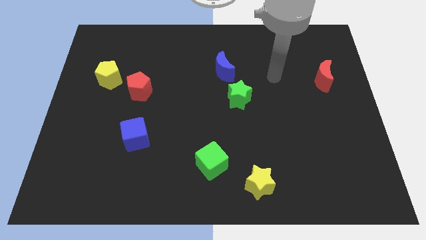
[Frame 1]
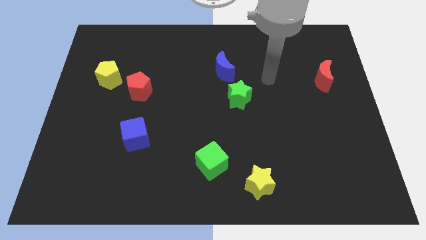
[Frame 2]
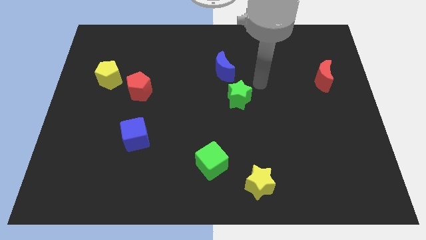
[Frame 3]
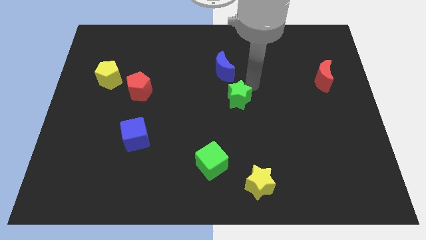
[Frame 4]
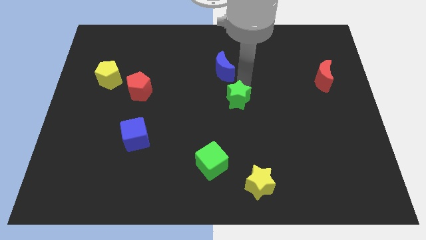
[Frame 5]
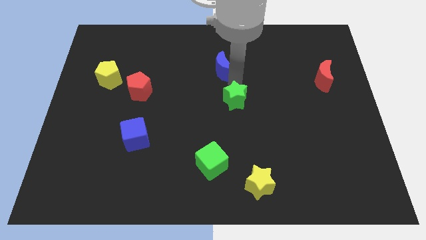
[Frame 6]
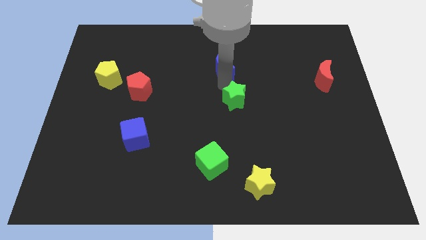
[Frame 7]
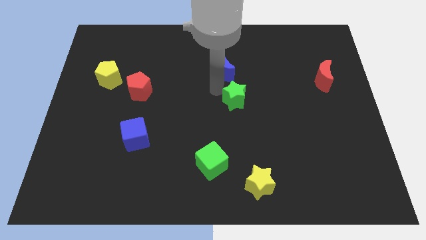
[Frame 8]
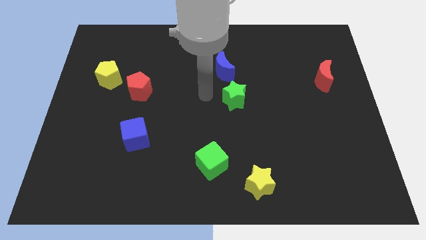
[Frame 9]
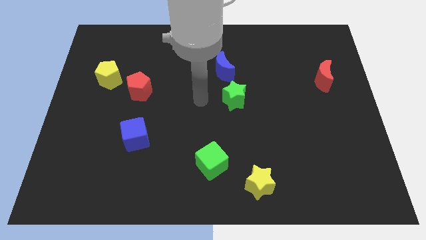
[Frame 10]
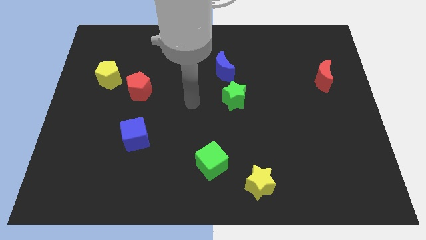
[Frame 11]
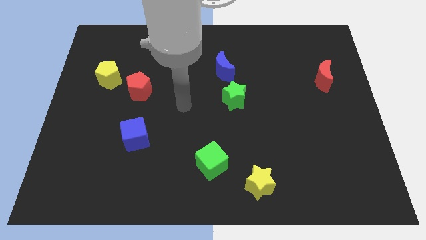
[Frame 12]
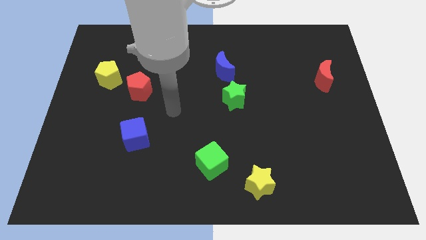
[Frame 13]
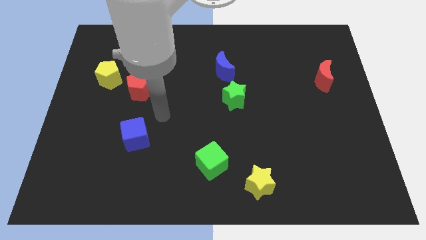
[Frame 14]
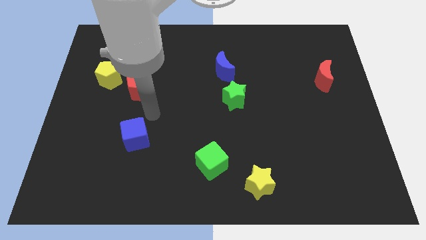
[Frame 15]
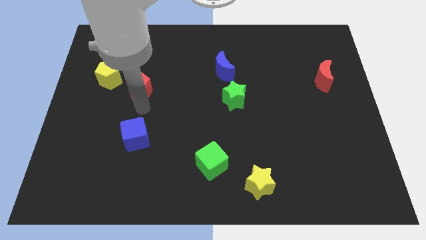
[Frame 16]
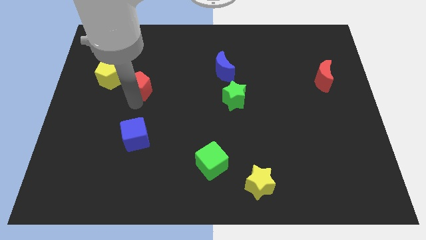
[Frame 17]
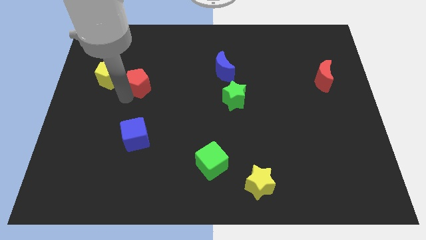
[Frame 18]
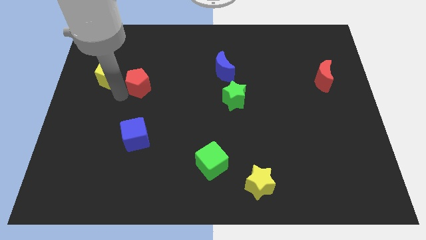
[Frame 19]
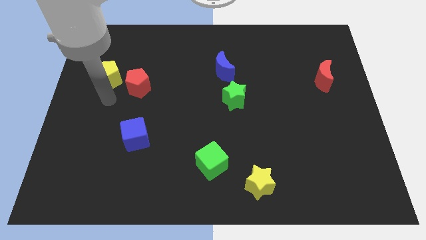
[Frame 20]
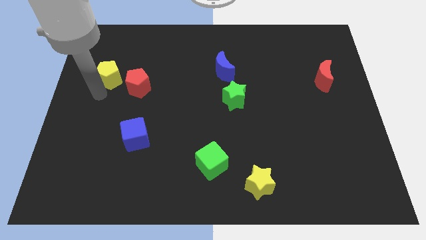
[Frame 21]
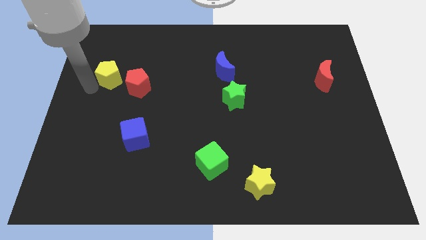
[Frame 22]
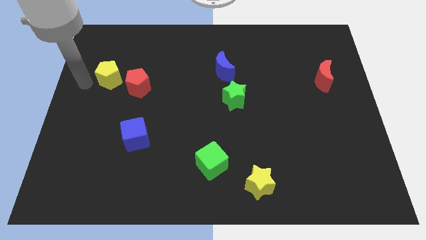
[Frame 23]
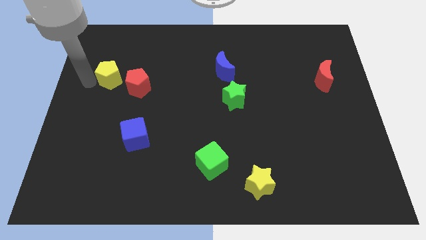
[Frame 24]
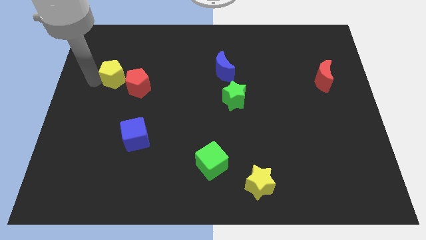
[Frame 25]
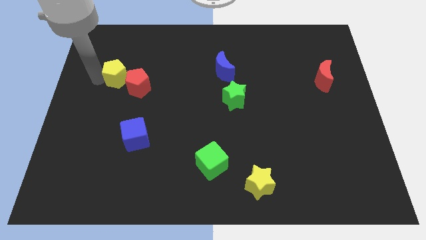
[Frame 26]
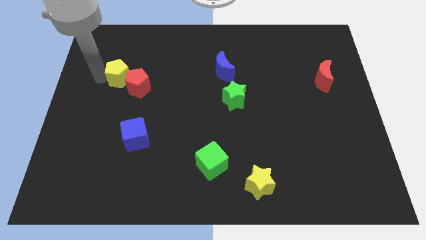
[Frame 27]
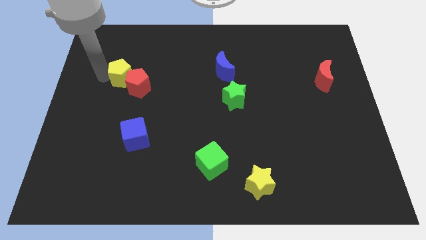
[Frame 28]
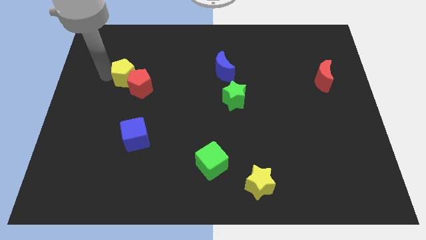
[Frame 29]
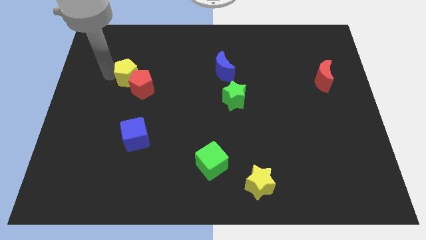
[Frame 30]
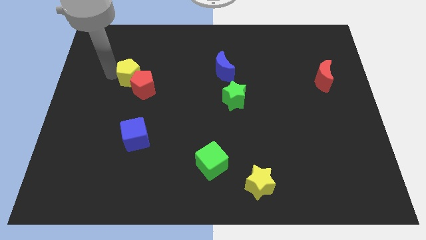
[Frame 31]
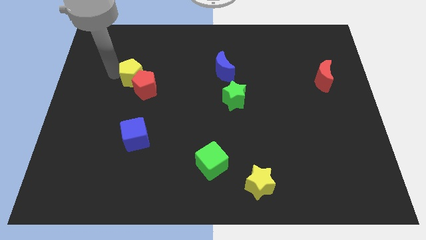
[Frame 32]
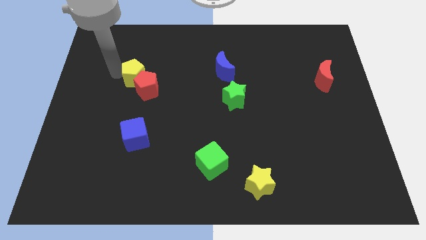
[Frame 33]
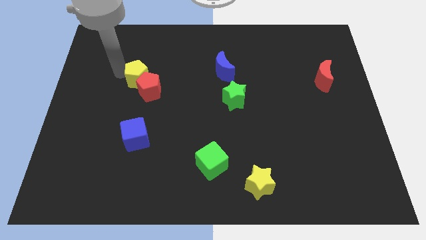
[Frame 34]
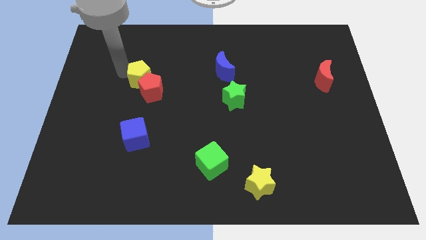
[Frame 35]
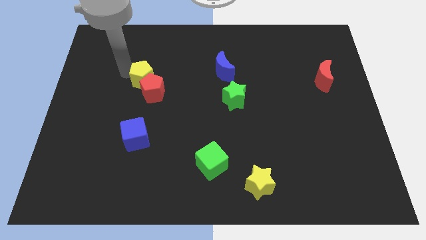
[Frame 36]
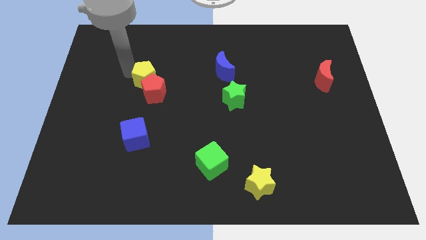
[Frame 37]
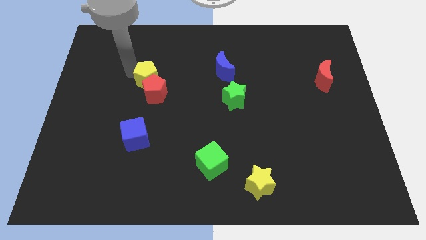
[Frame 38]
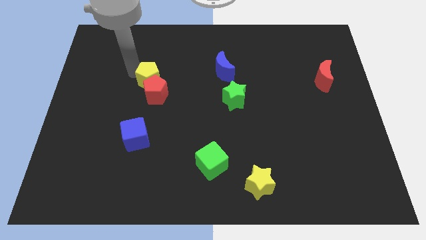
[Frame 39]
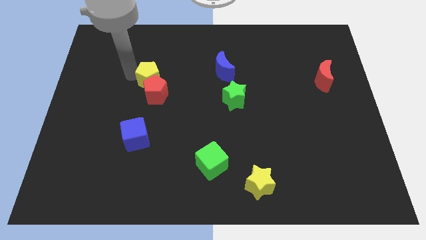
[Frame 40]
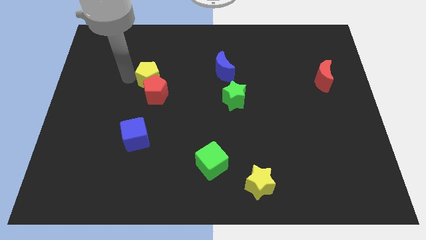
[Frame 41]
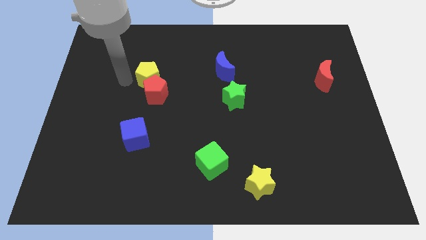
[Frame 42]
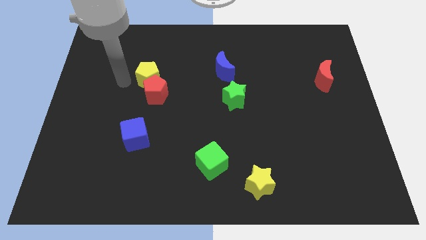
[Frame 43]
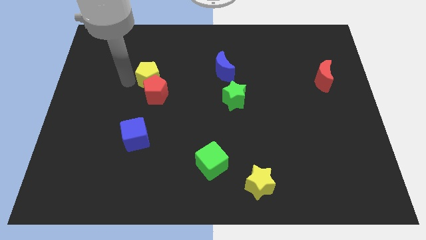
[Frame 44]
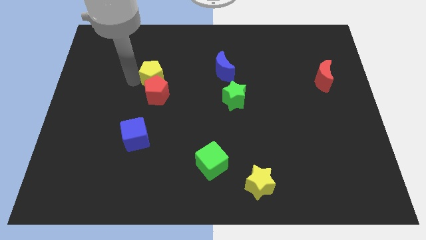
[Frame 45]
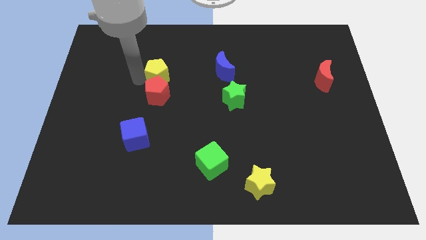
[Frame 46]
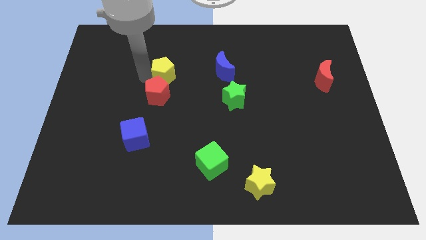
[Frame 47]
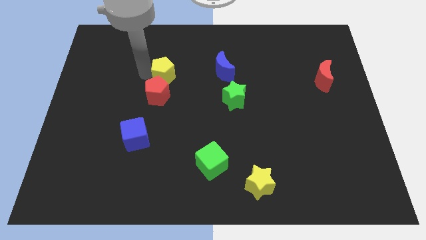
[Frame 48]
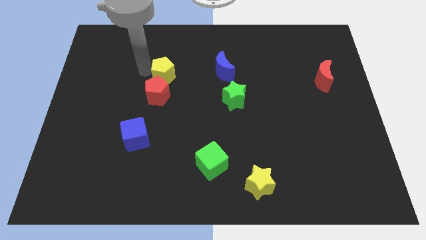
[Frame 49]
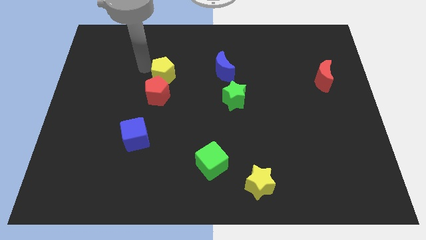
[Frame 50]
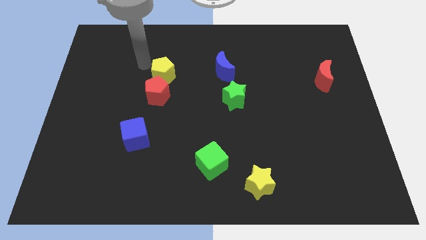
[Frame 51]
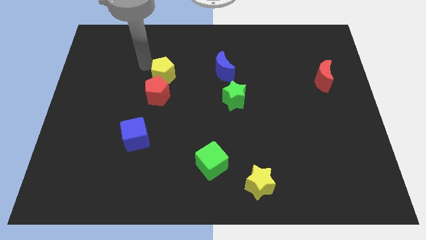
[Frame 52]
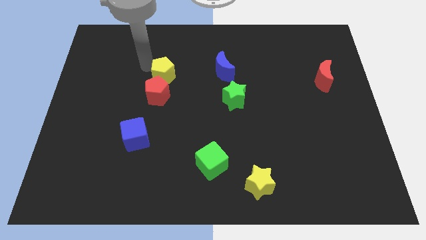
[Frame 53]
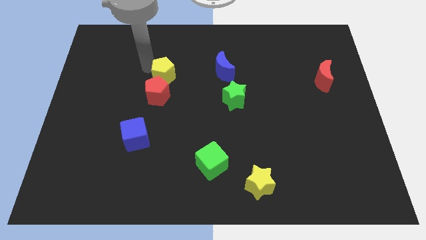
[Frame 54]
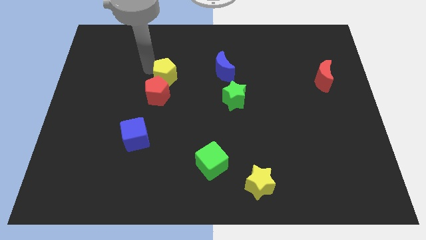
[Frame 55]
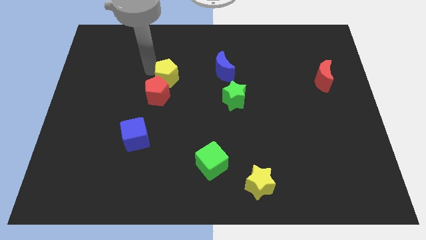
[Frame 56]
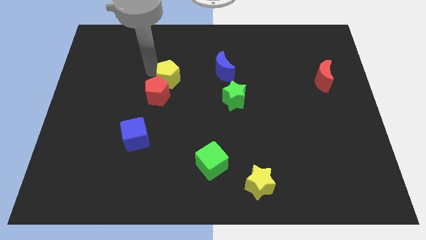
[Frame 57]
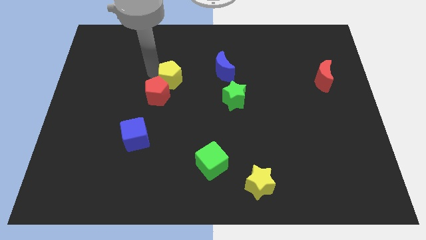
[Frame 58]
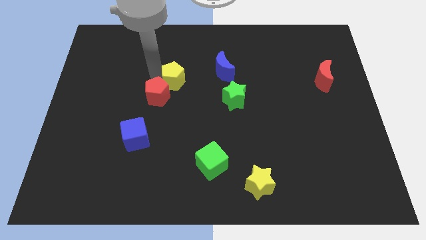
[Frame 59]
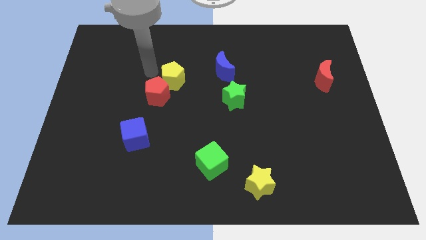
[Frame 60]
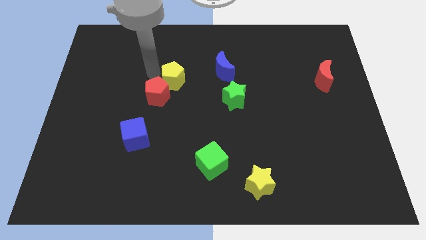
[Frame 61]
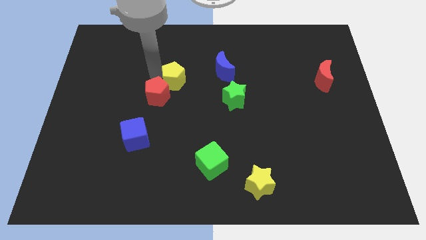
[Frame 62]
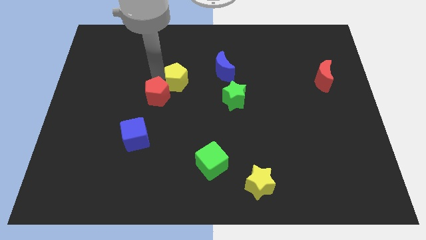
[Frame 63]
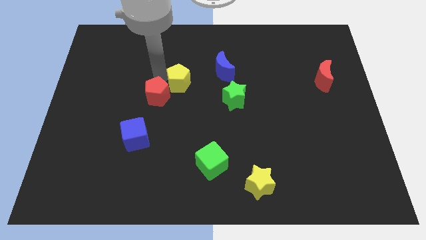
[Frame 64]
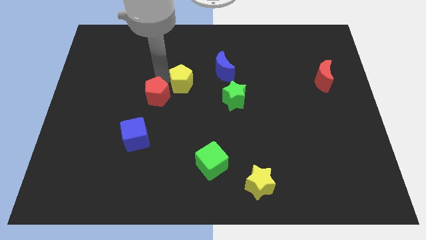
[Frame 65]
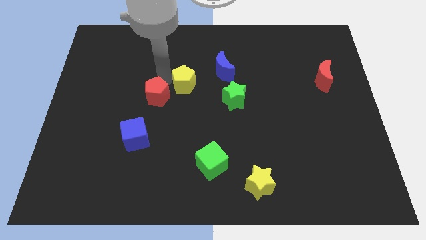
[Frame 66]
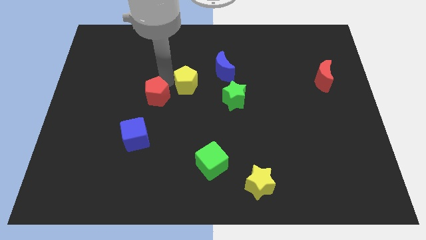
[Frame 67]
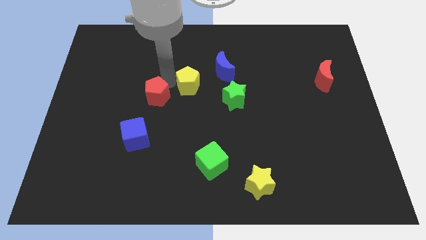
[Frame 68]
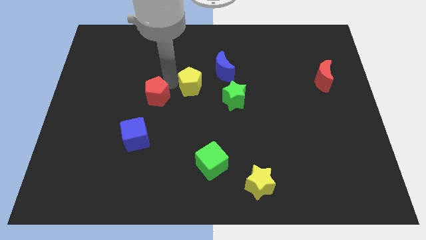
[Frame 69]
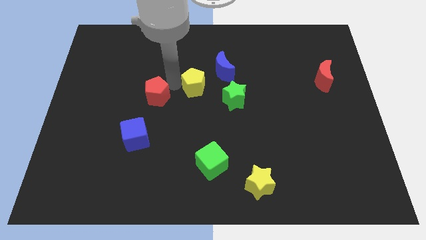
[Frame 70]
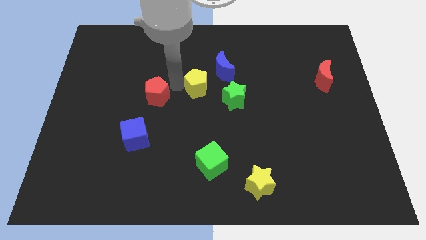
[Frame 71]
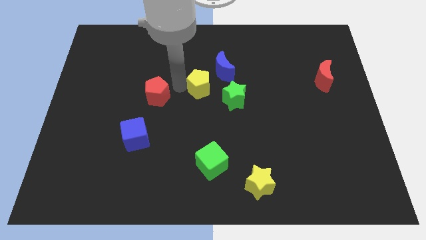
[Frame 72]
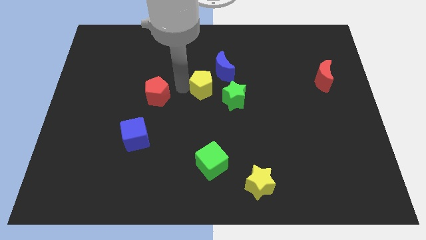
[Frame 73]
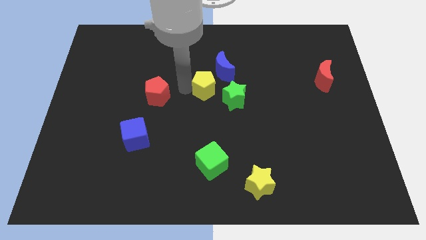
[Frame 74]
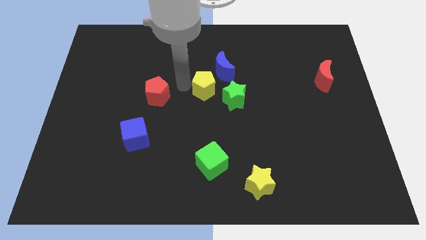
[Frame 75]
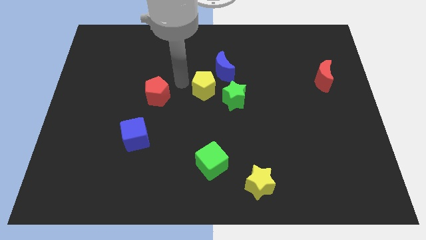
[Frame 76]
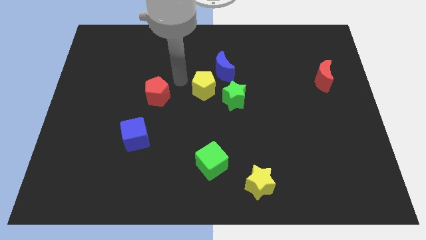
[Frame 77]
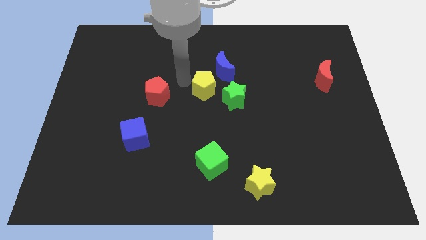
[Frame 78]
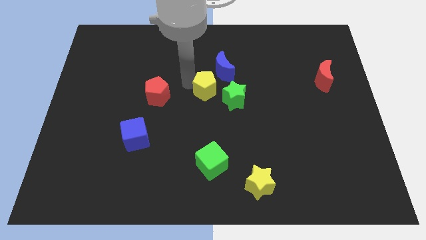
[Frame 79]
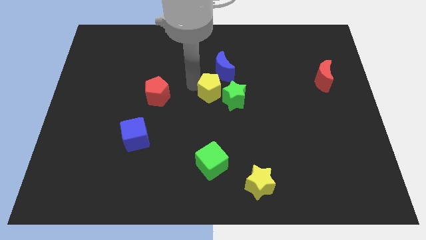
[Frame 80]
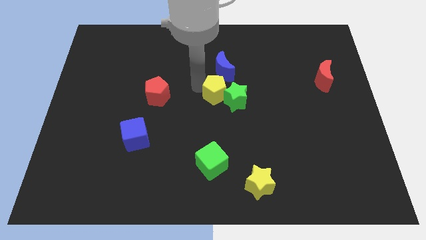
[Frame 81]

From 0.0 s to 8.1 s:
slide the yellow pentagon towards the green star
